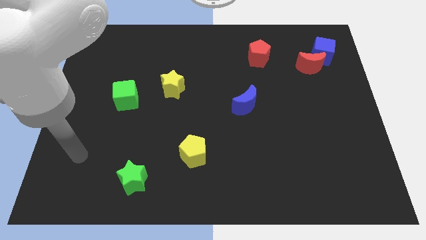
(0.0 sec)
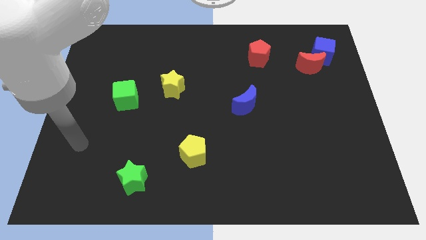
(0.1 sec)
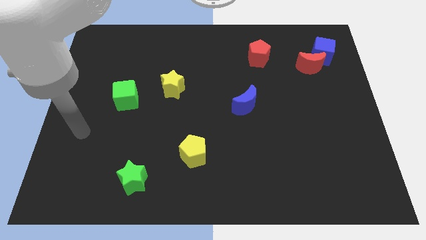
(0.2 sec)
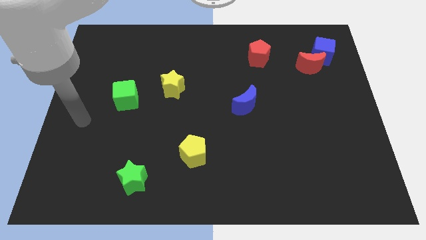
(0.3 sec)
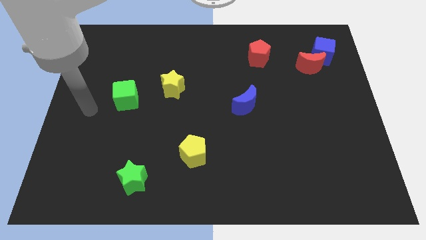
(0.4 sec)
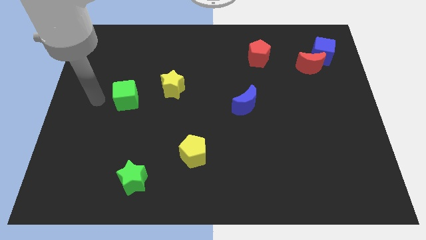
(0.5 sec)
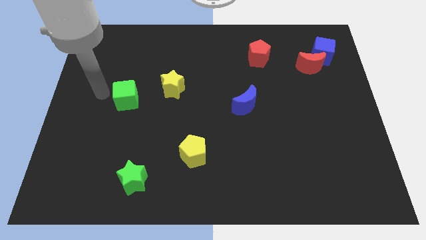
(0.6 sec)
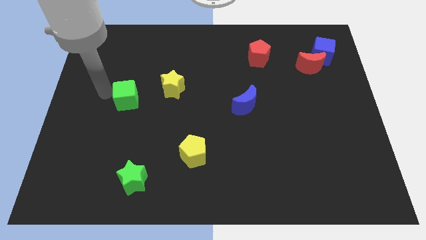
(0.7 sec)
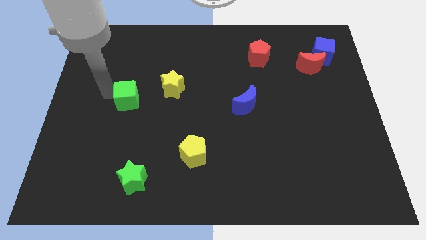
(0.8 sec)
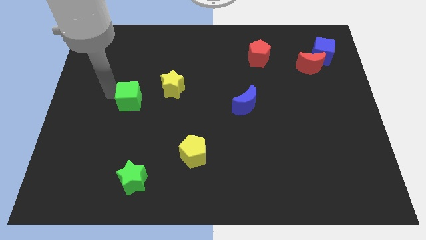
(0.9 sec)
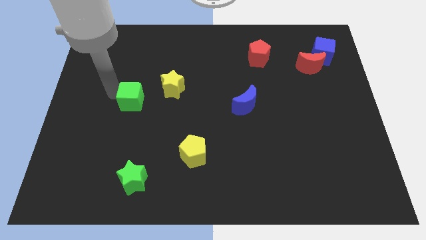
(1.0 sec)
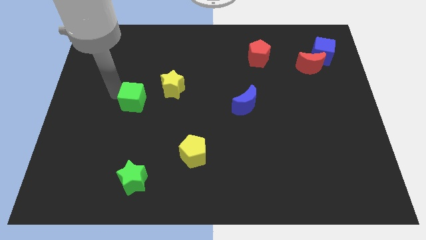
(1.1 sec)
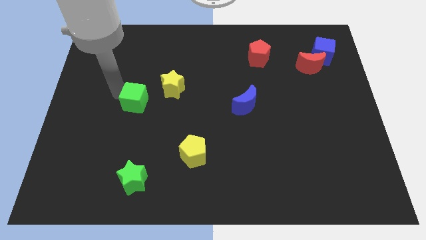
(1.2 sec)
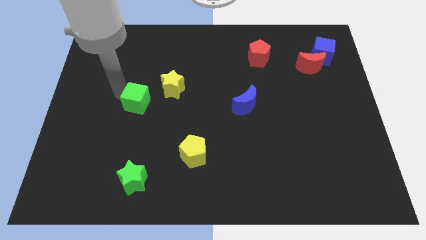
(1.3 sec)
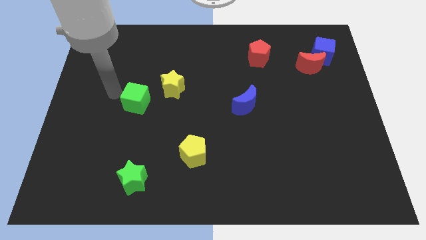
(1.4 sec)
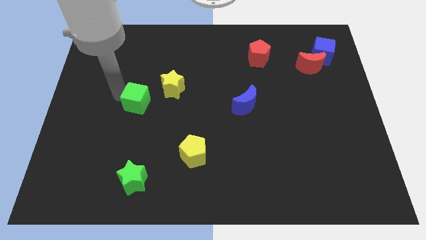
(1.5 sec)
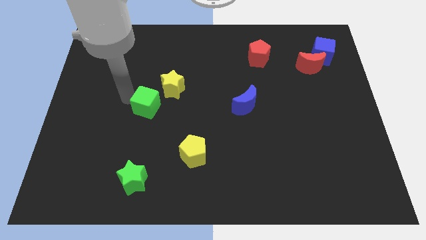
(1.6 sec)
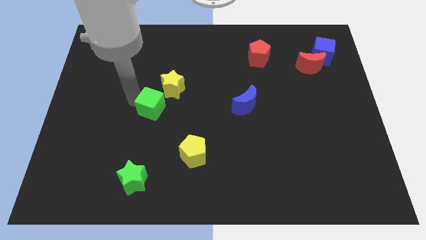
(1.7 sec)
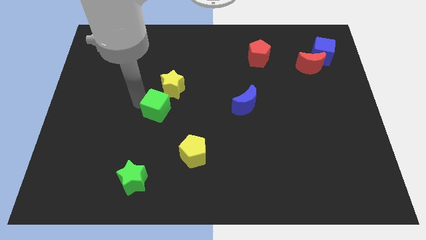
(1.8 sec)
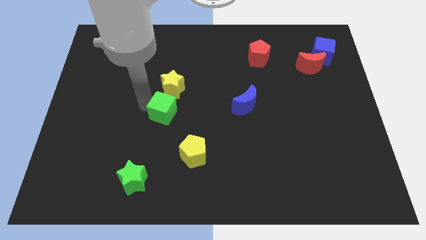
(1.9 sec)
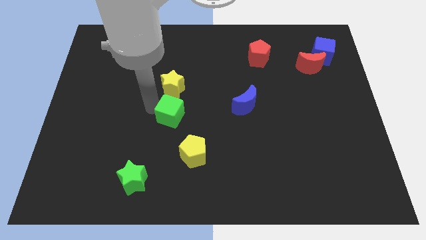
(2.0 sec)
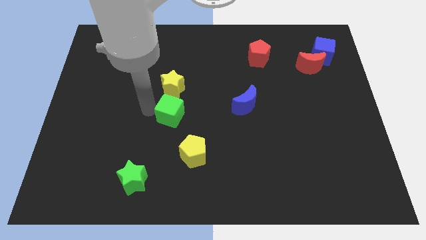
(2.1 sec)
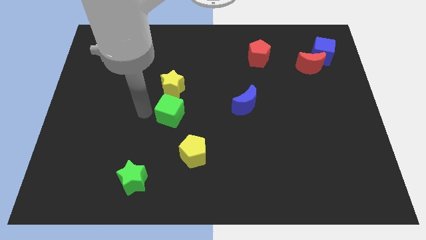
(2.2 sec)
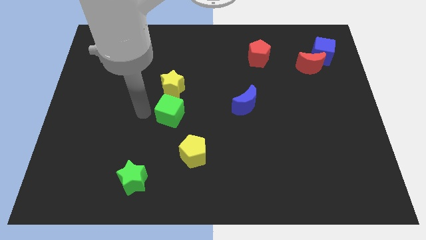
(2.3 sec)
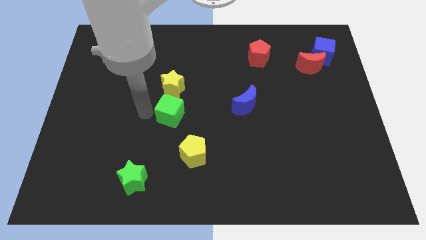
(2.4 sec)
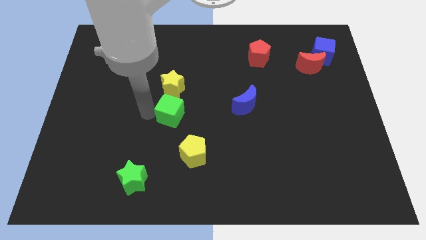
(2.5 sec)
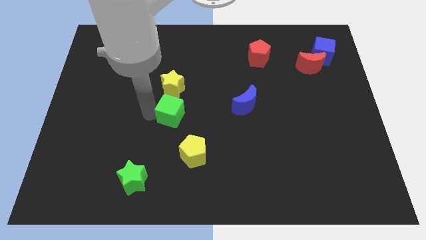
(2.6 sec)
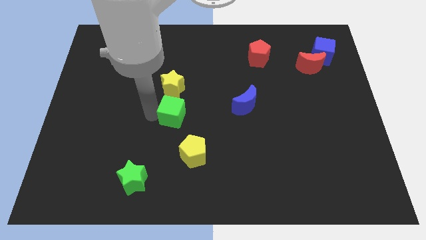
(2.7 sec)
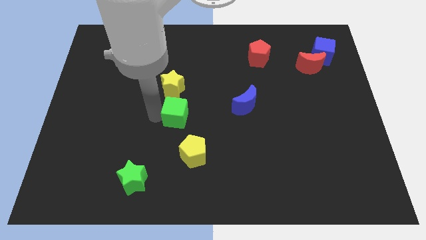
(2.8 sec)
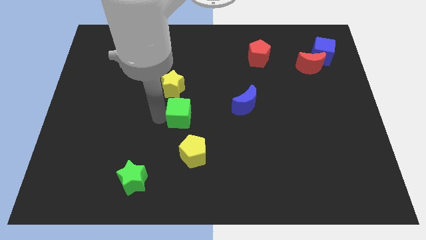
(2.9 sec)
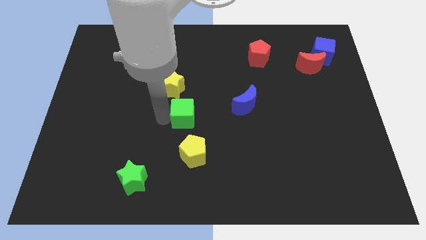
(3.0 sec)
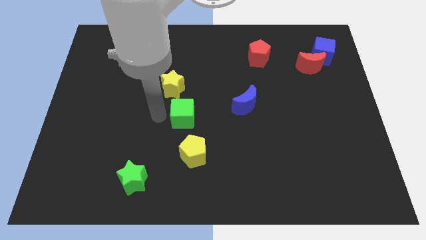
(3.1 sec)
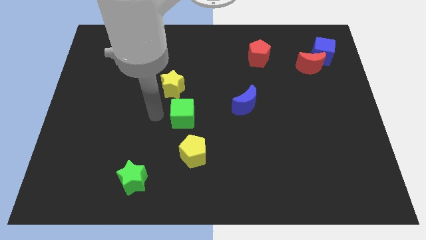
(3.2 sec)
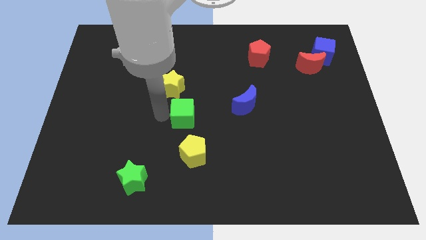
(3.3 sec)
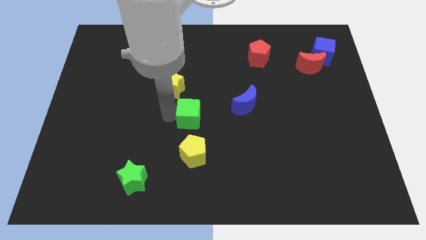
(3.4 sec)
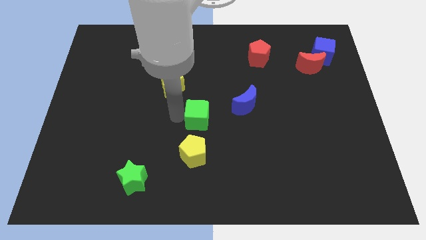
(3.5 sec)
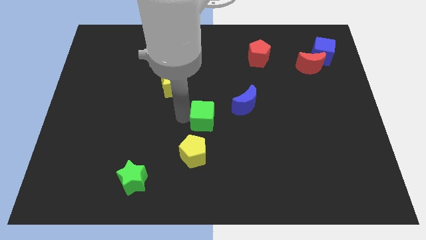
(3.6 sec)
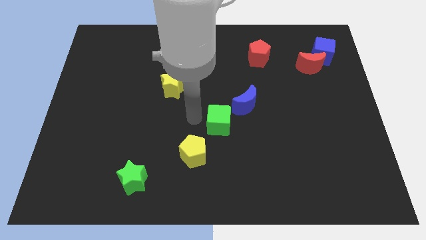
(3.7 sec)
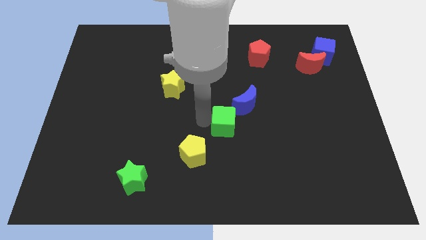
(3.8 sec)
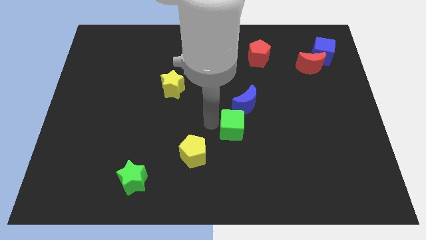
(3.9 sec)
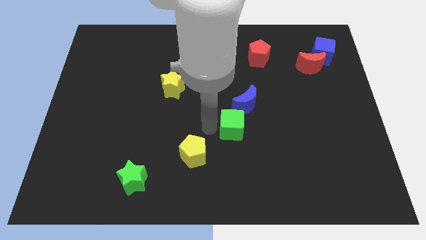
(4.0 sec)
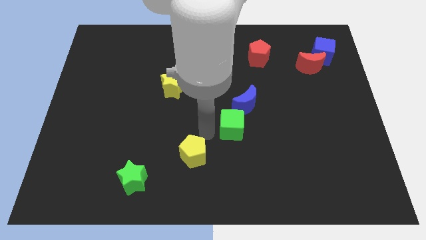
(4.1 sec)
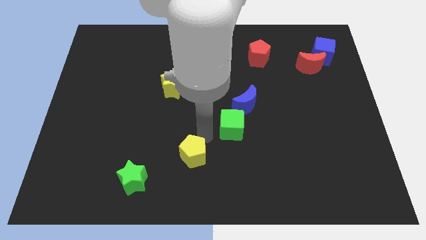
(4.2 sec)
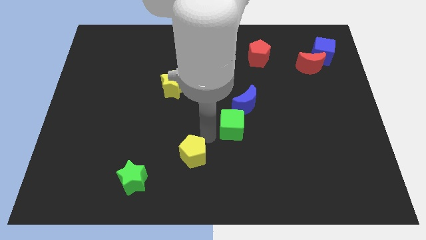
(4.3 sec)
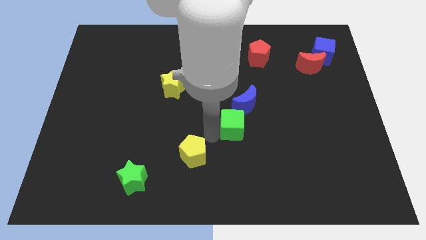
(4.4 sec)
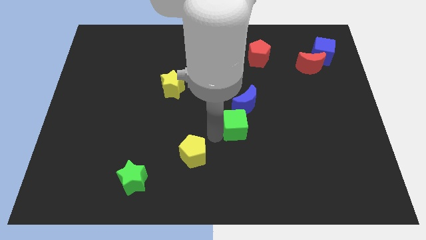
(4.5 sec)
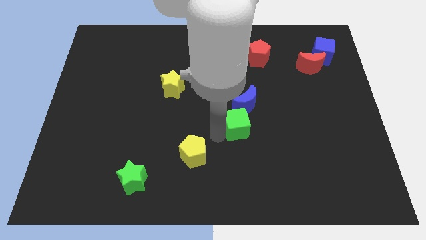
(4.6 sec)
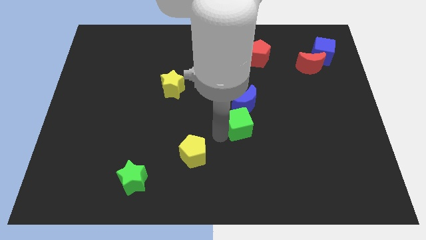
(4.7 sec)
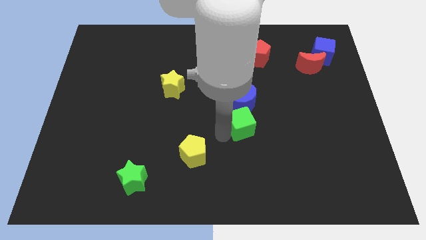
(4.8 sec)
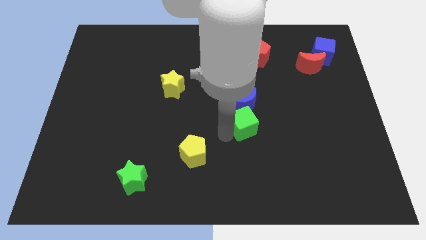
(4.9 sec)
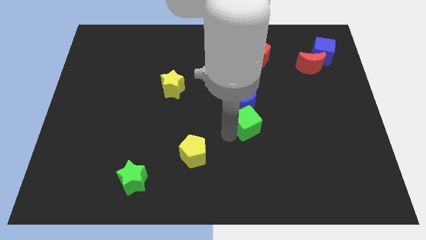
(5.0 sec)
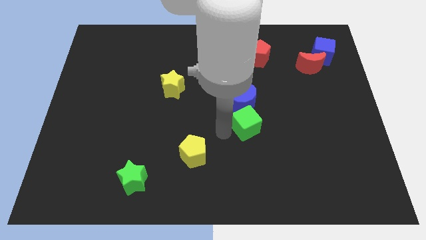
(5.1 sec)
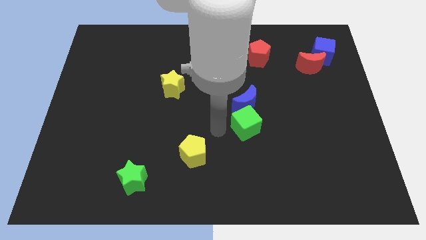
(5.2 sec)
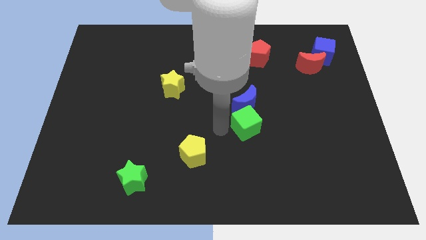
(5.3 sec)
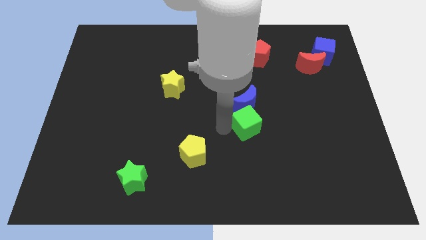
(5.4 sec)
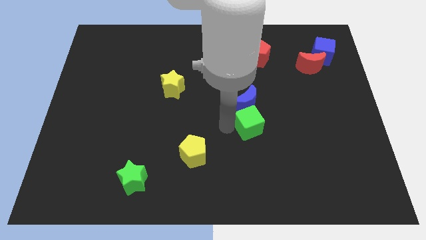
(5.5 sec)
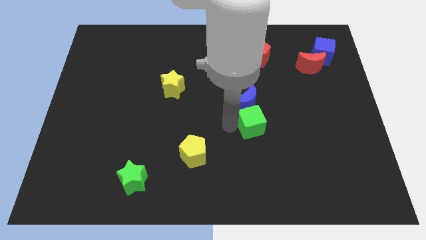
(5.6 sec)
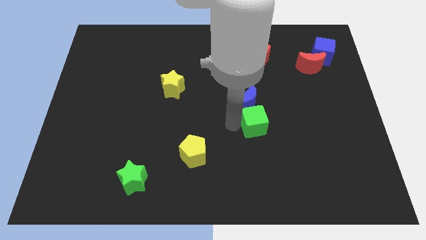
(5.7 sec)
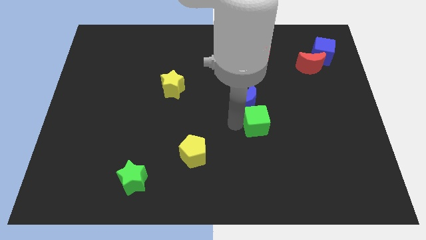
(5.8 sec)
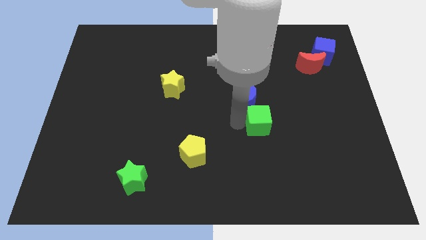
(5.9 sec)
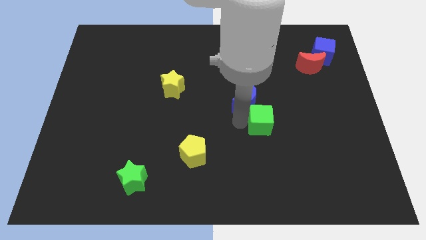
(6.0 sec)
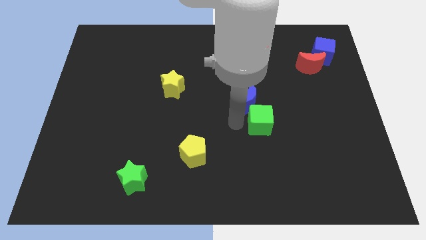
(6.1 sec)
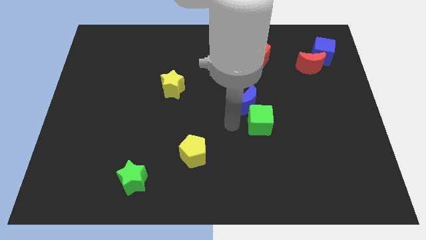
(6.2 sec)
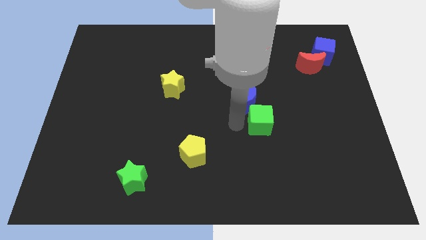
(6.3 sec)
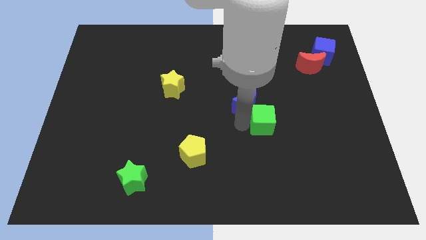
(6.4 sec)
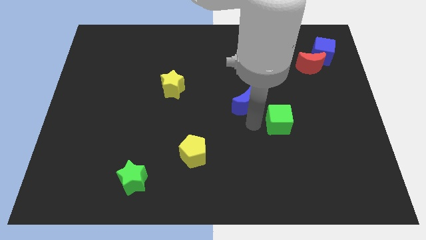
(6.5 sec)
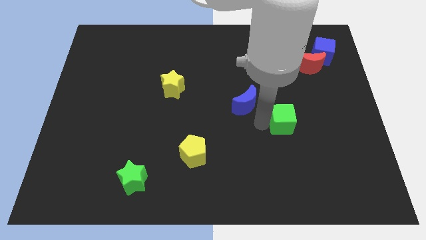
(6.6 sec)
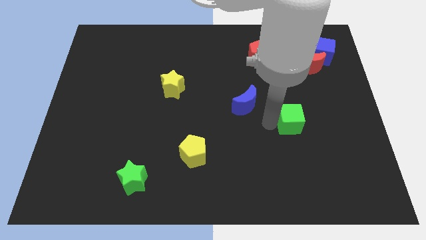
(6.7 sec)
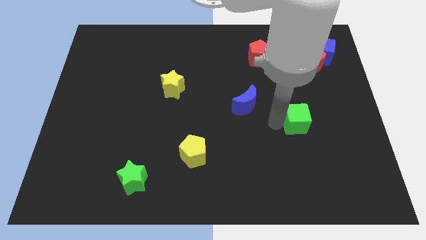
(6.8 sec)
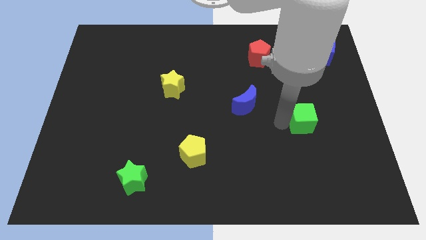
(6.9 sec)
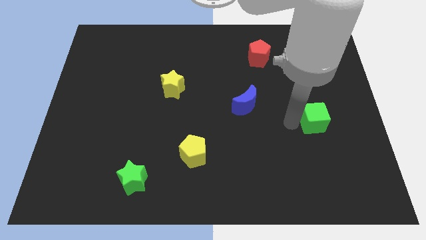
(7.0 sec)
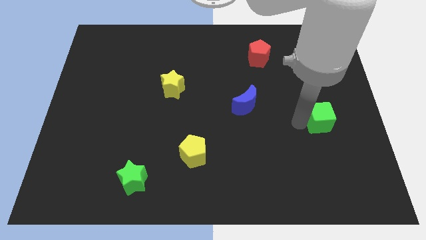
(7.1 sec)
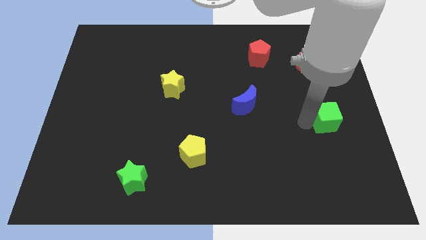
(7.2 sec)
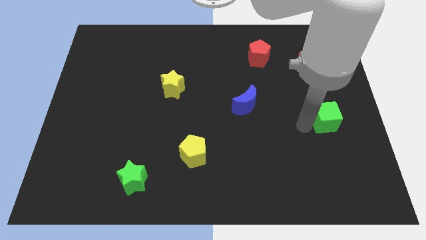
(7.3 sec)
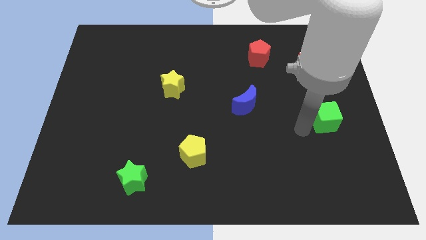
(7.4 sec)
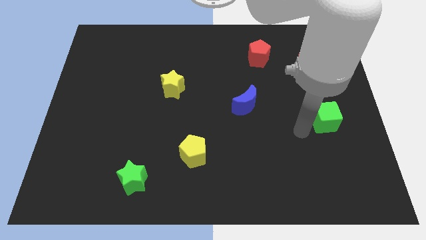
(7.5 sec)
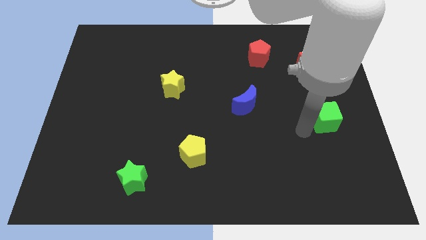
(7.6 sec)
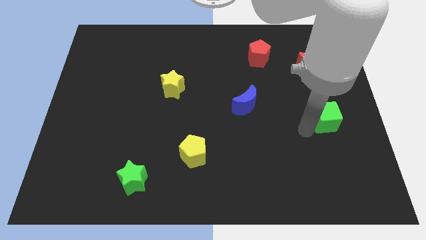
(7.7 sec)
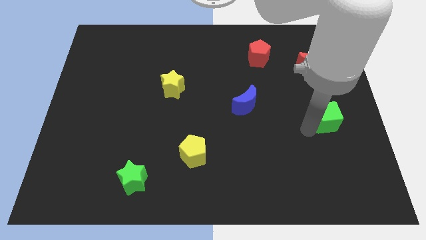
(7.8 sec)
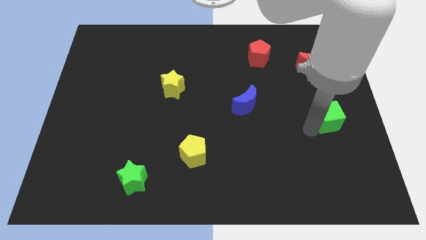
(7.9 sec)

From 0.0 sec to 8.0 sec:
put the green cube to the center right
